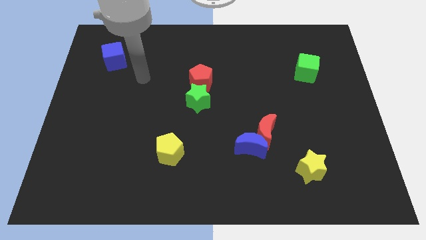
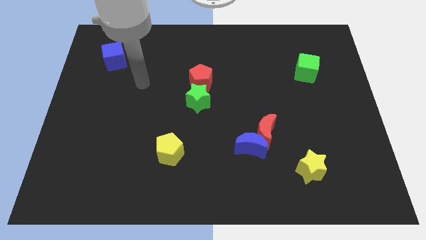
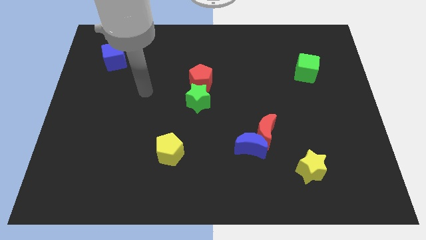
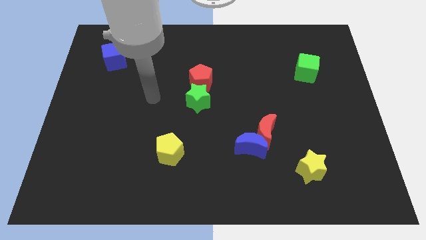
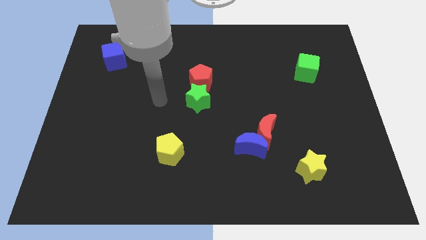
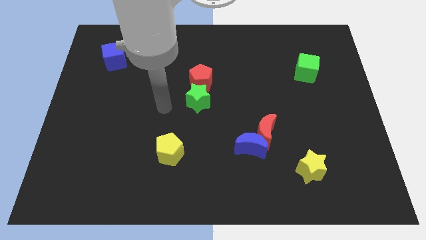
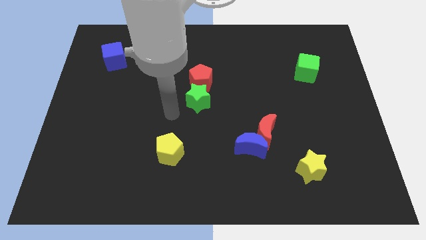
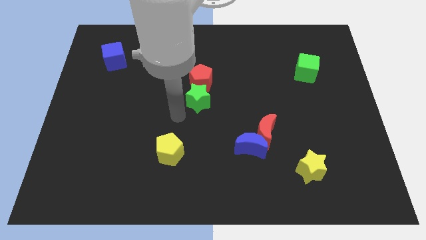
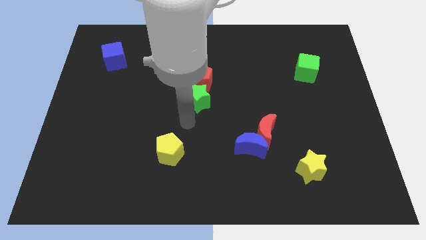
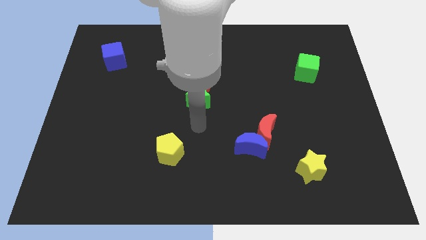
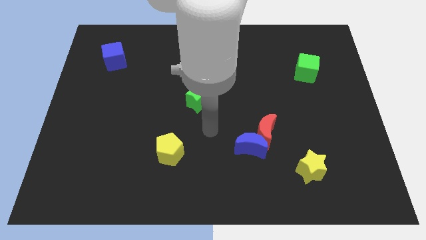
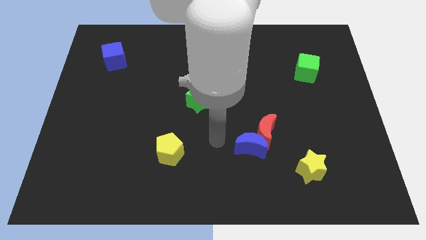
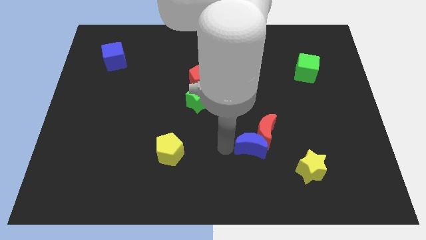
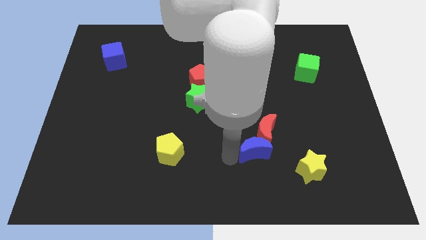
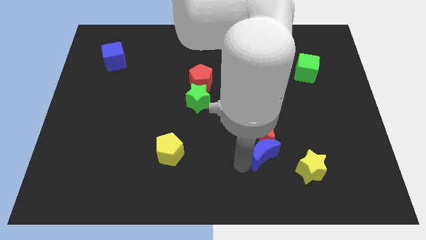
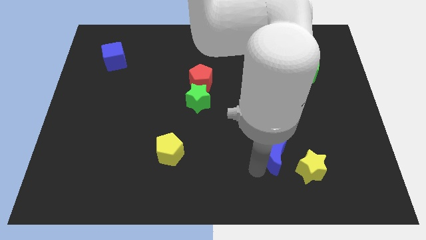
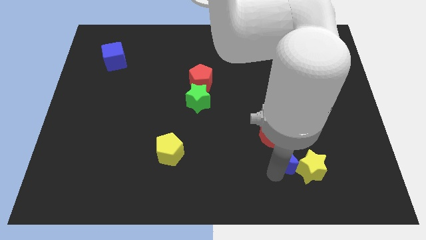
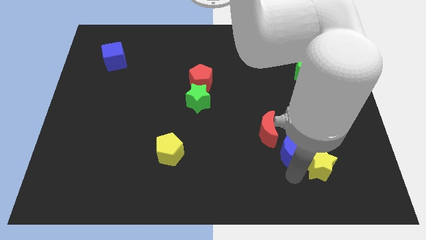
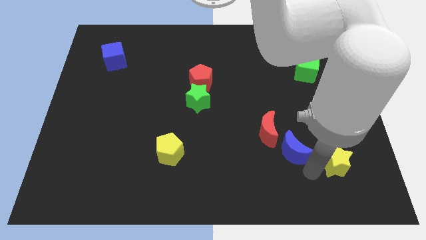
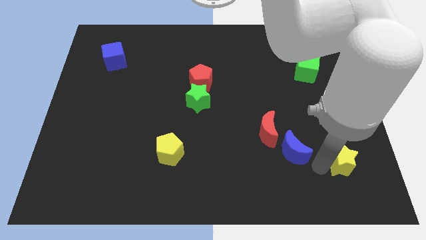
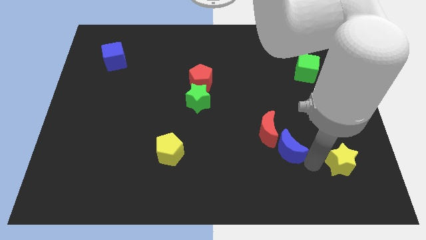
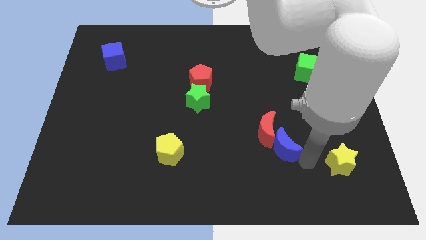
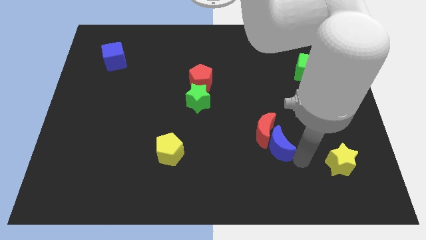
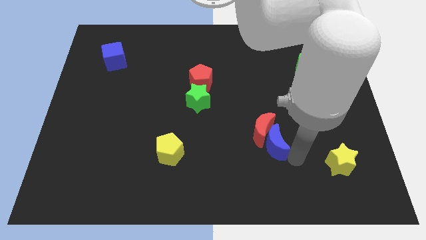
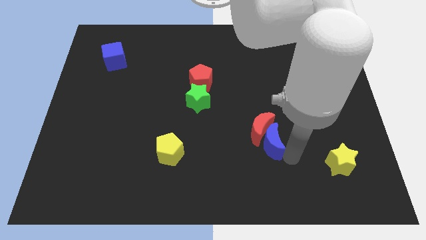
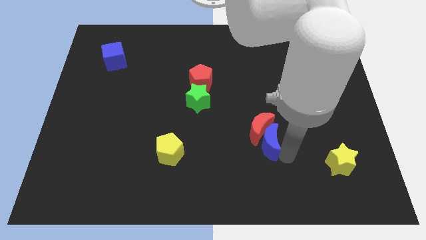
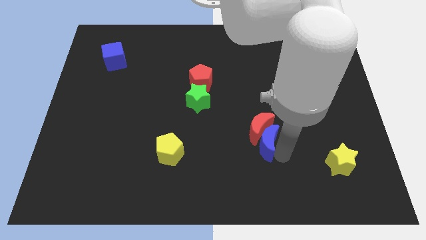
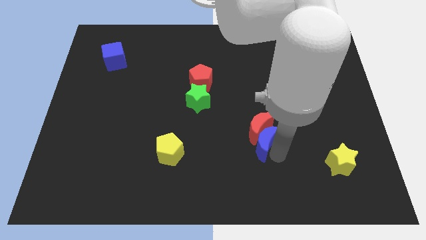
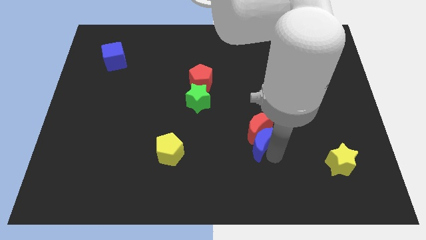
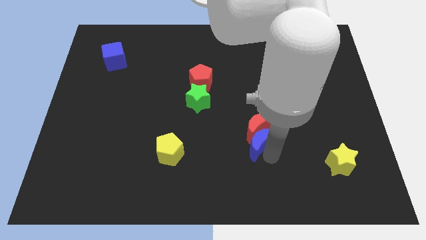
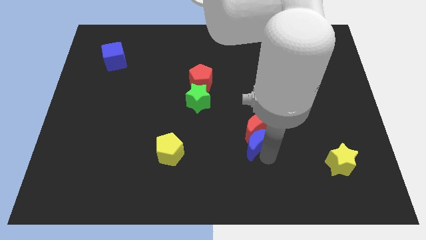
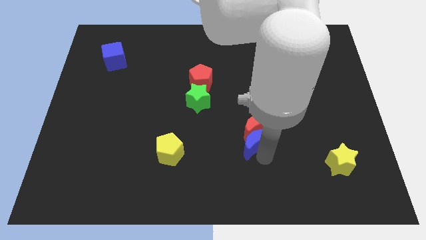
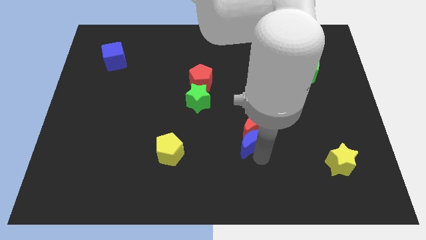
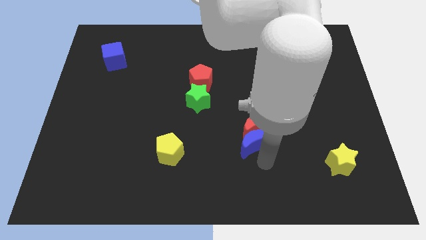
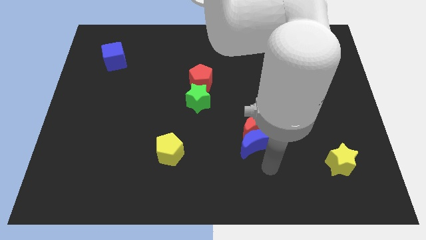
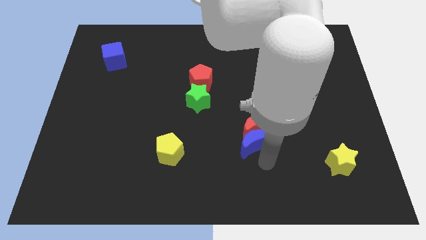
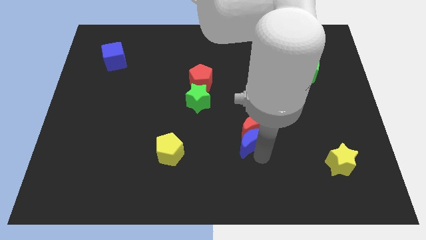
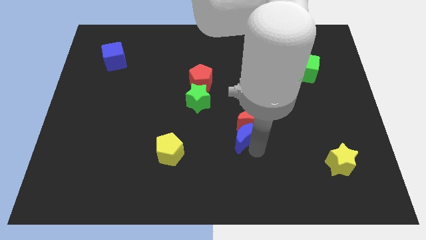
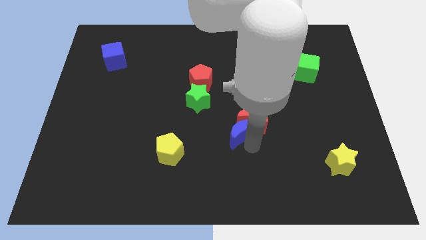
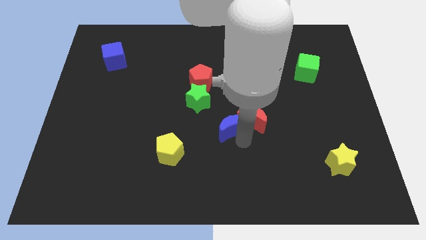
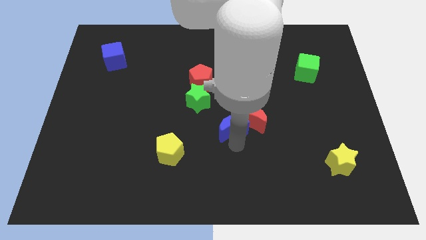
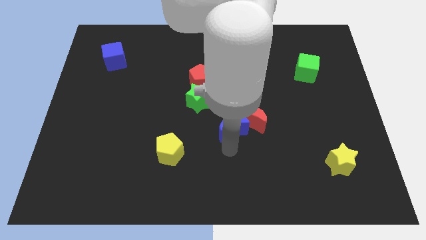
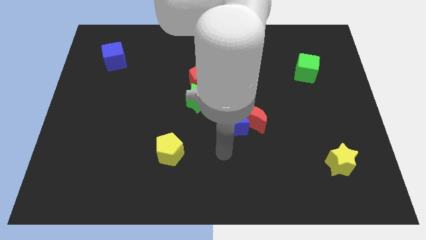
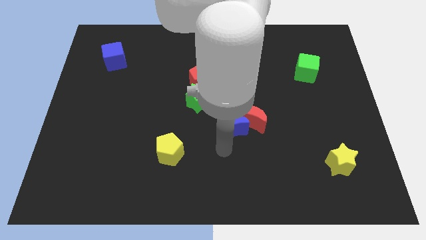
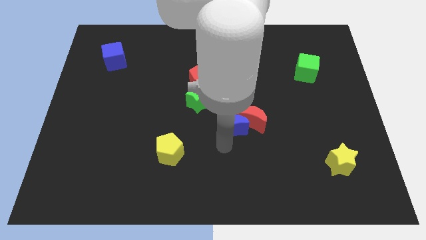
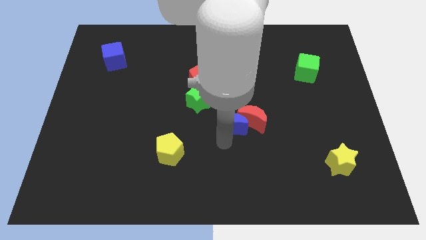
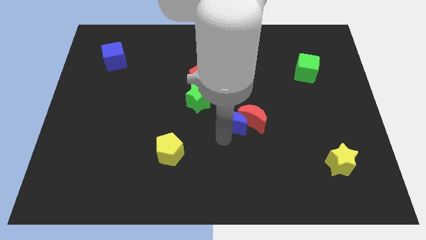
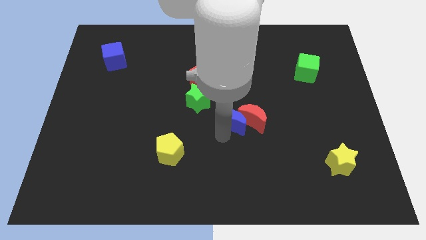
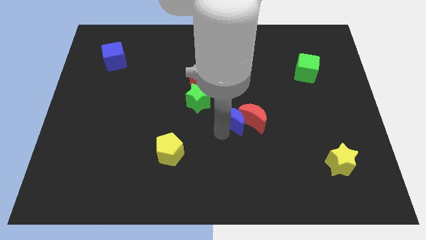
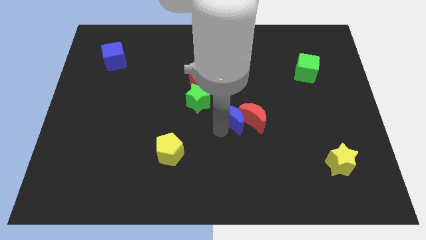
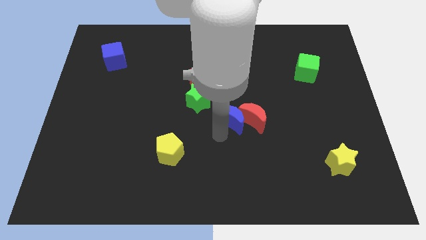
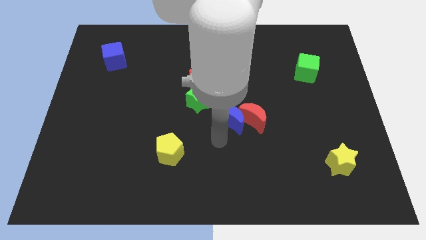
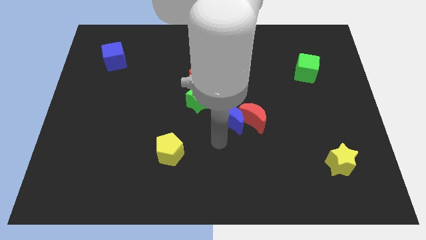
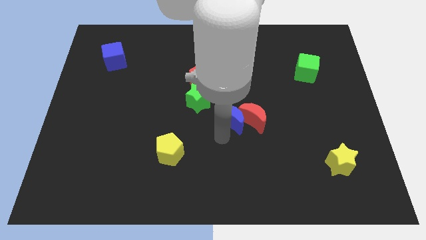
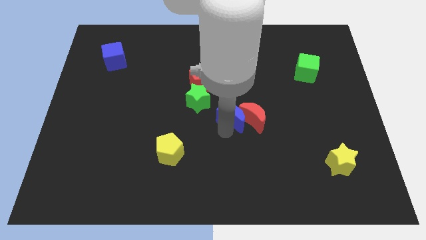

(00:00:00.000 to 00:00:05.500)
slightly slide the blue moon upwards

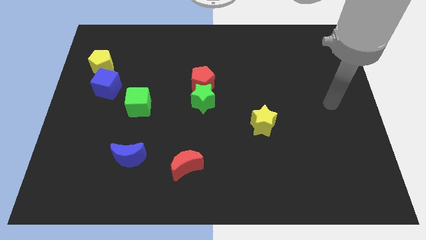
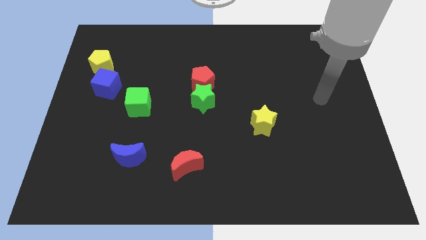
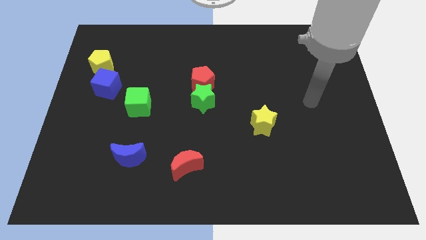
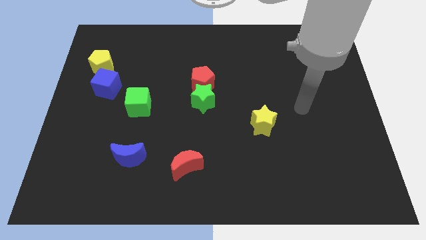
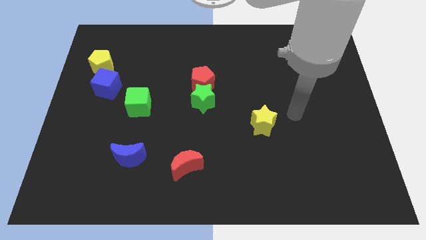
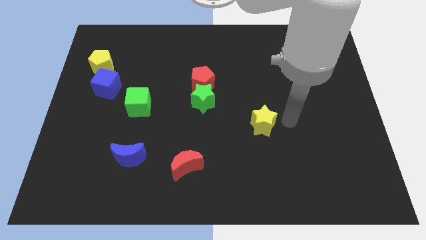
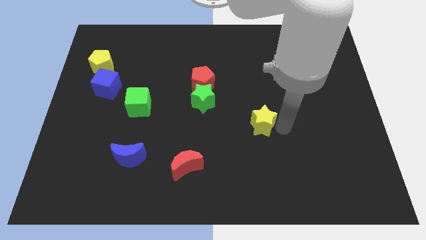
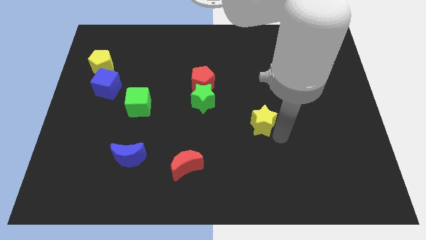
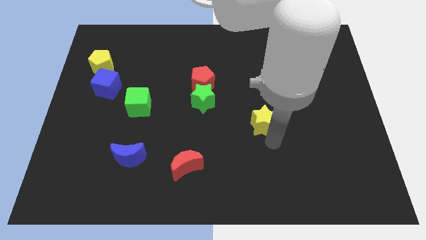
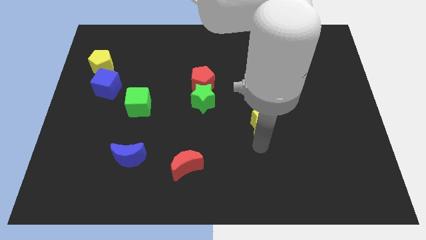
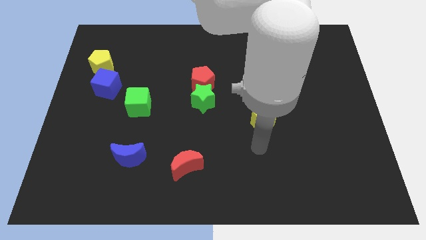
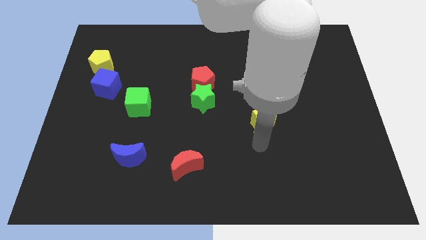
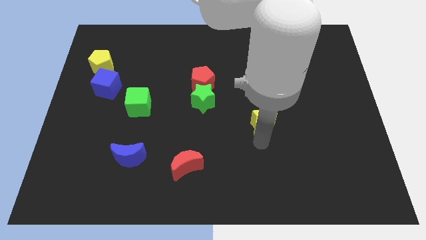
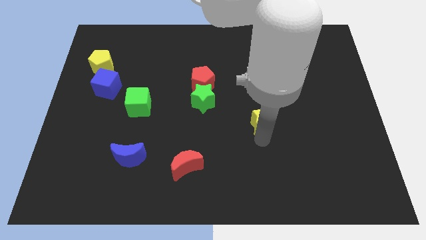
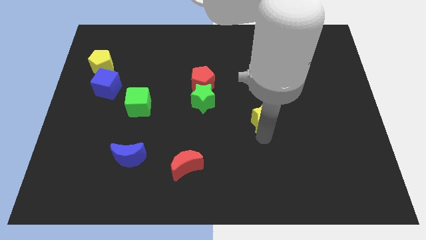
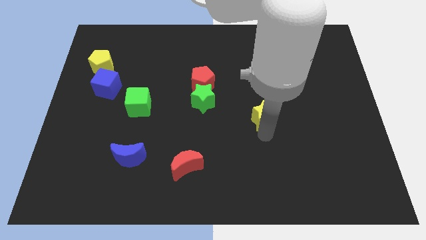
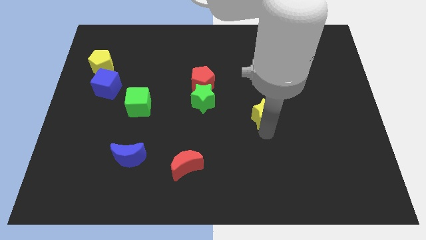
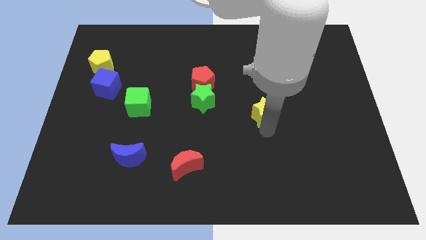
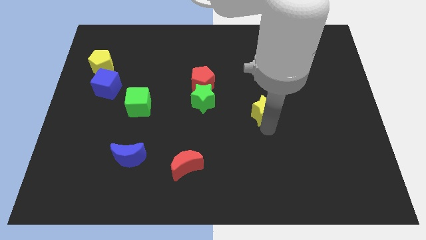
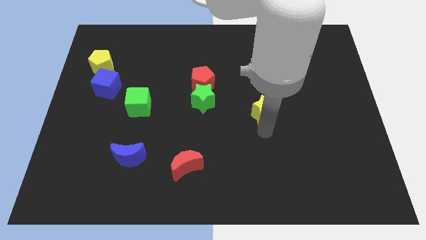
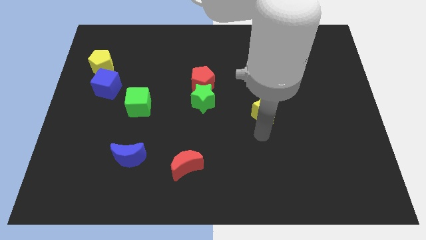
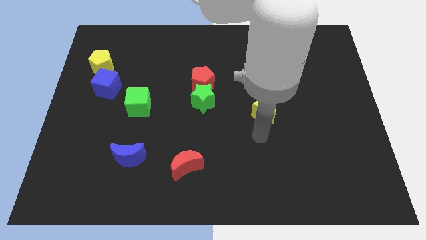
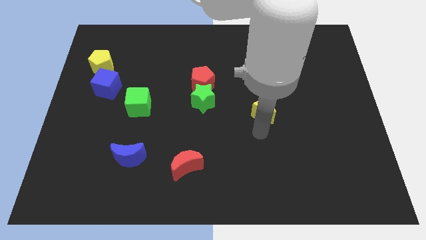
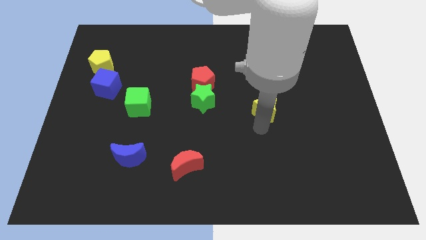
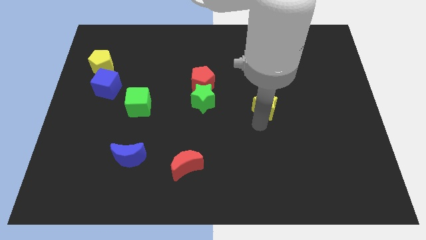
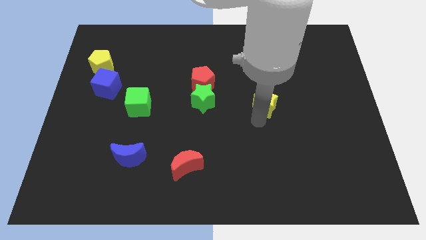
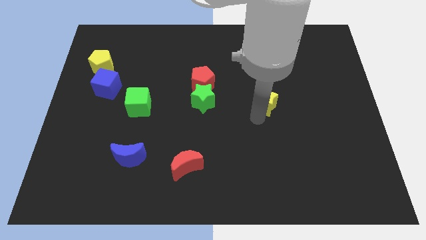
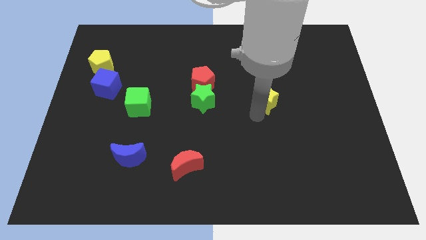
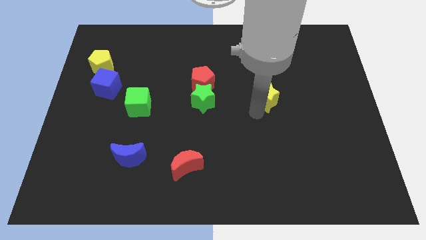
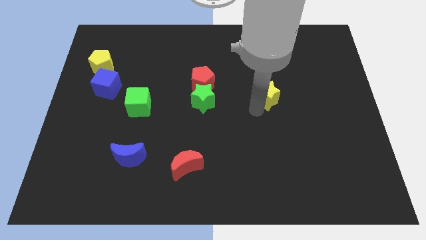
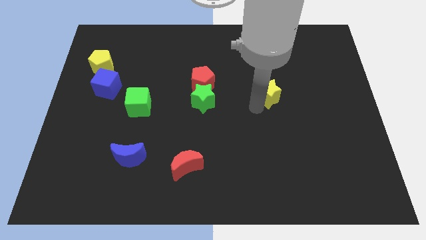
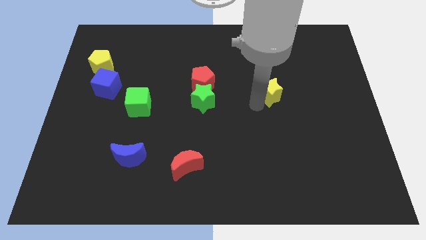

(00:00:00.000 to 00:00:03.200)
move the yellow star up and to the right a little
